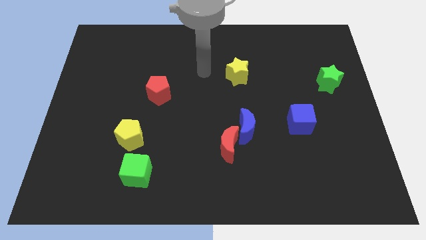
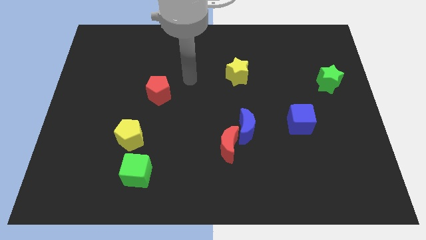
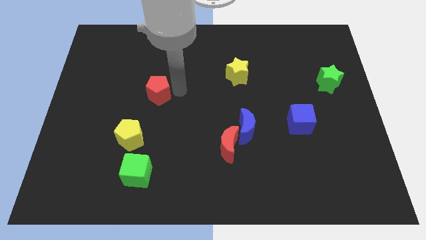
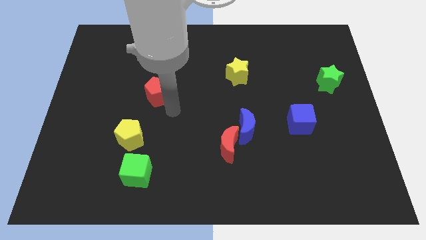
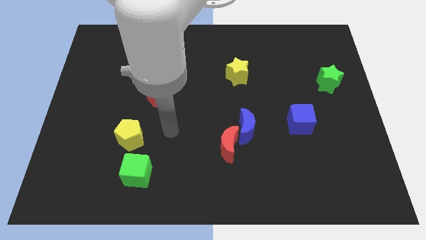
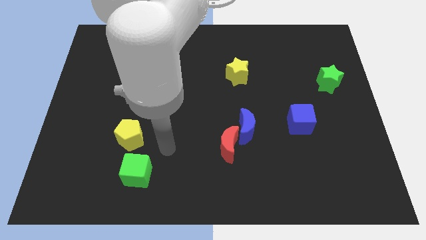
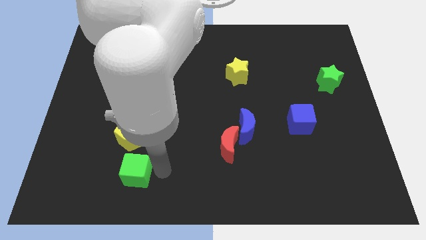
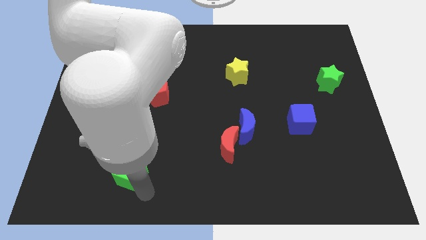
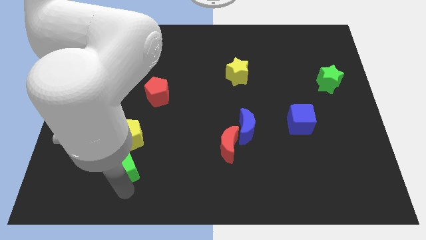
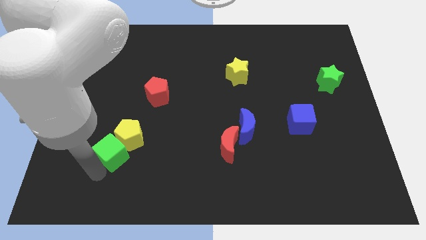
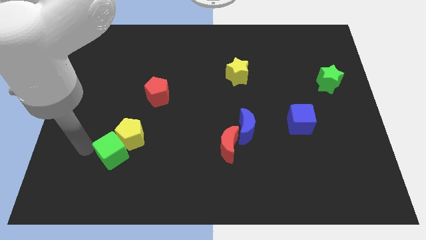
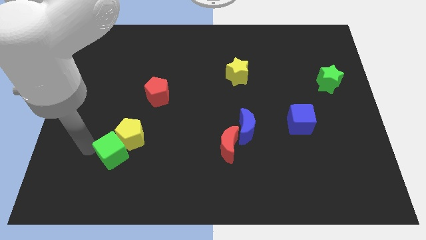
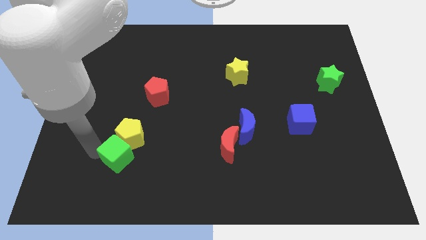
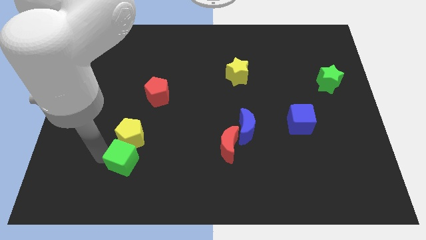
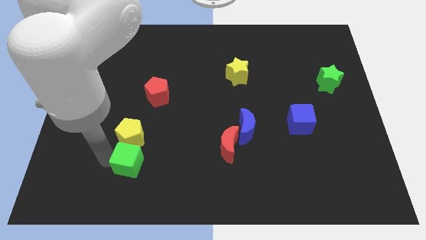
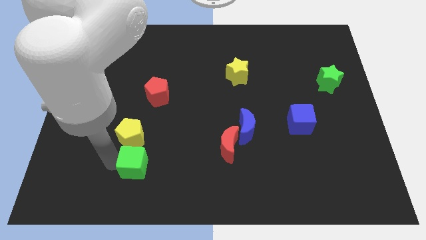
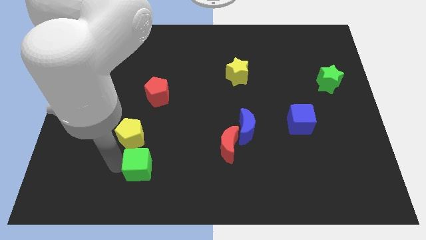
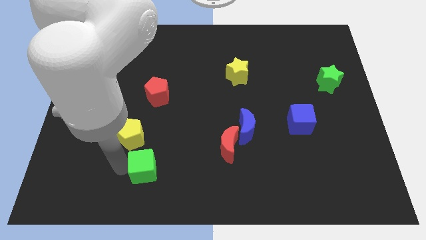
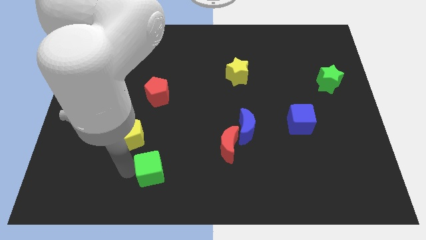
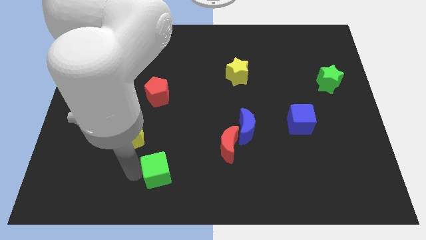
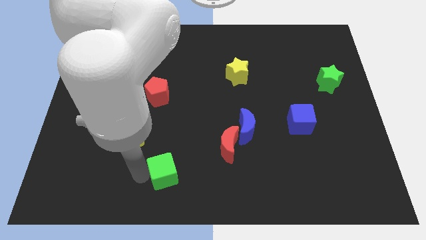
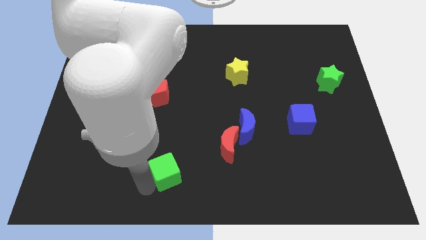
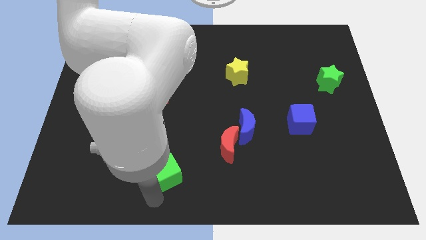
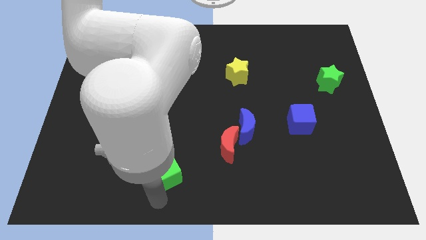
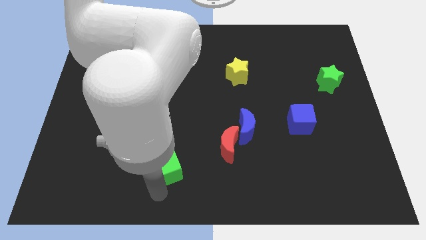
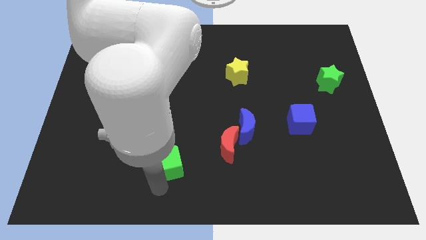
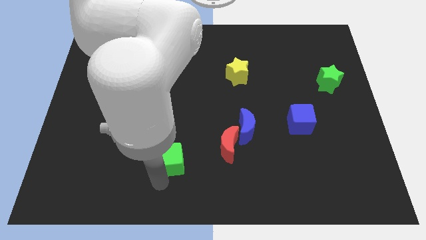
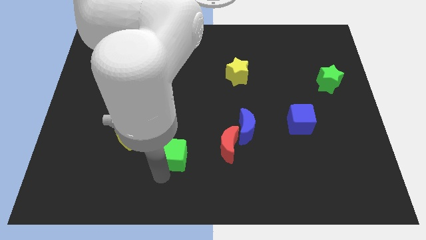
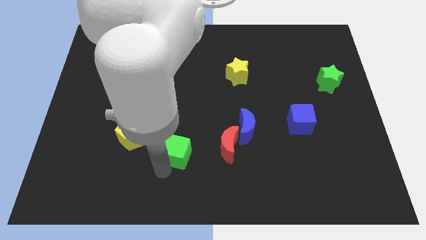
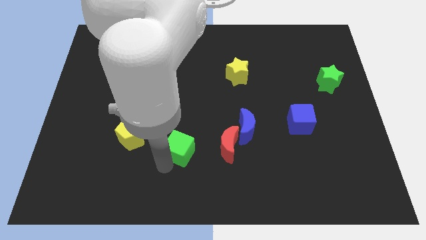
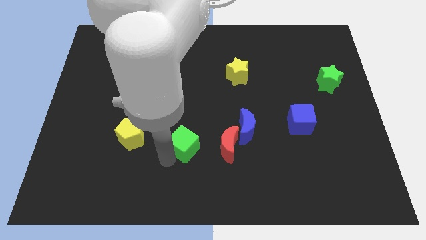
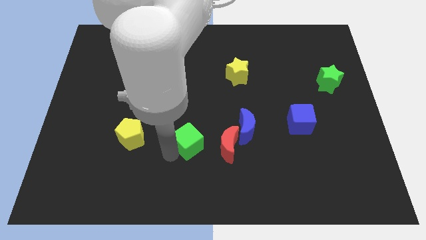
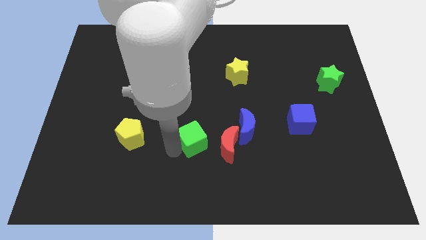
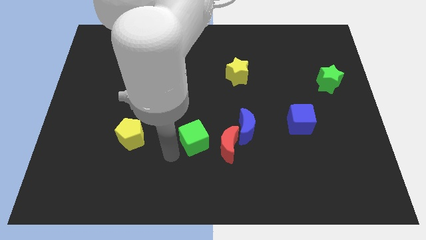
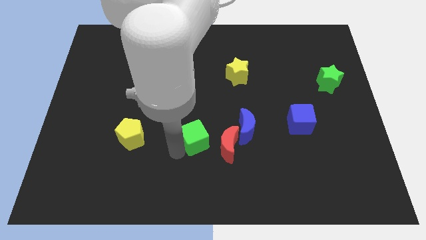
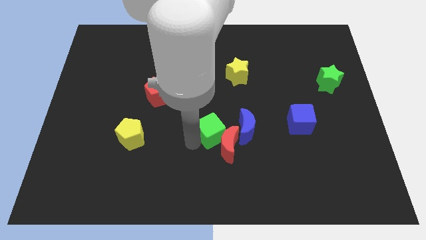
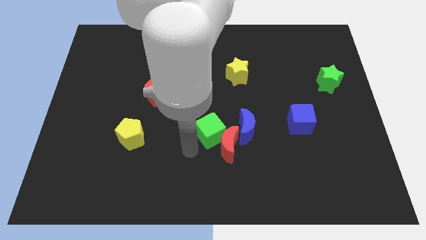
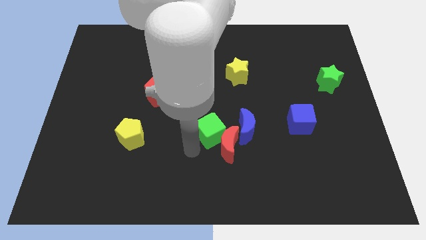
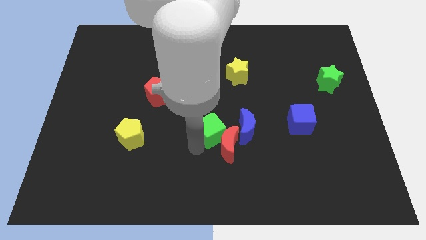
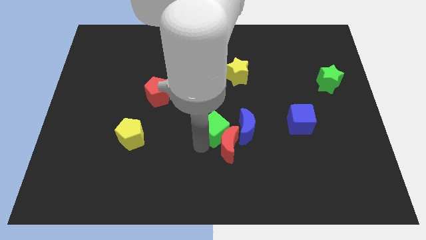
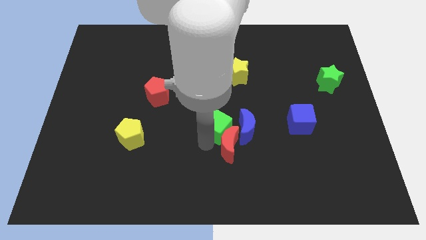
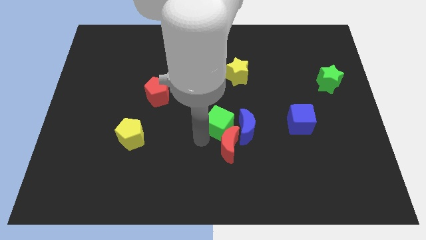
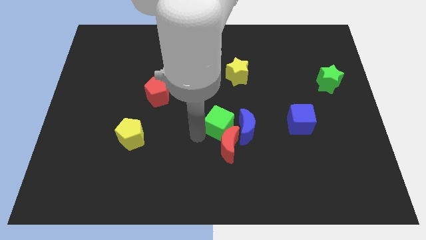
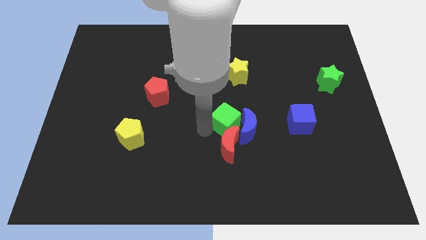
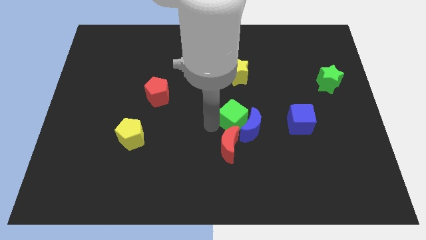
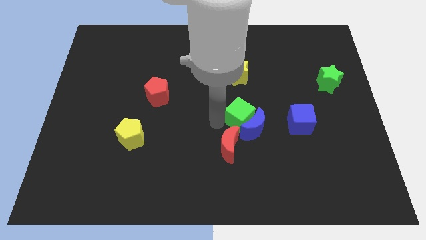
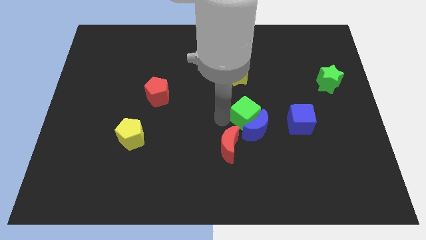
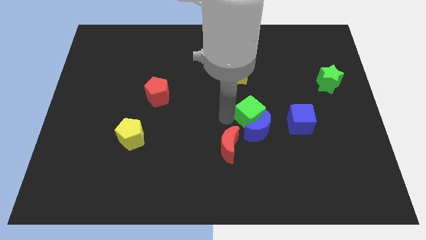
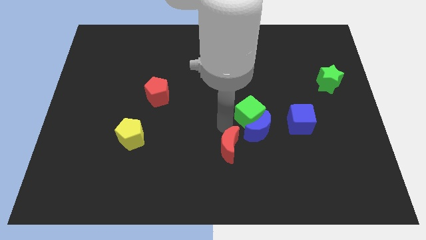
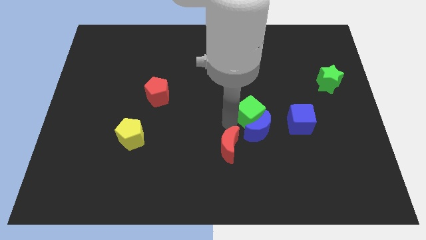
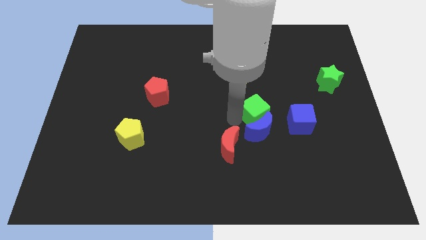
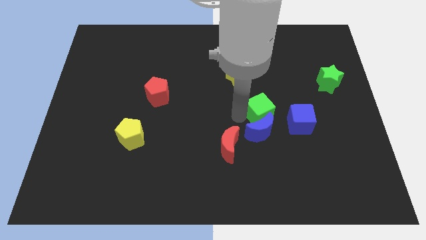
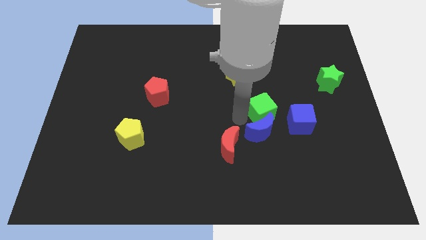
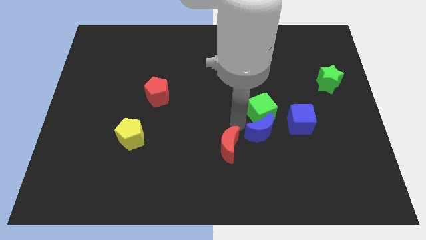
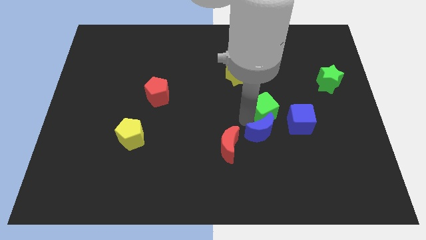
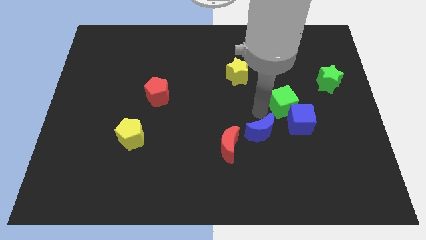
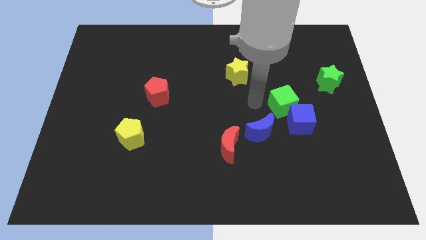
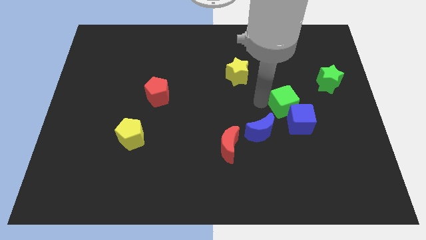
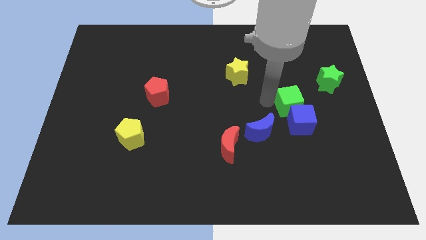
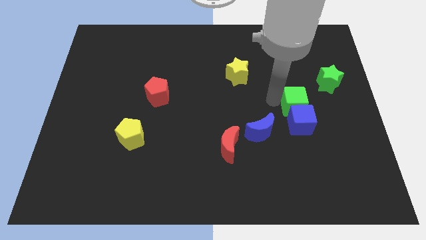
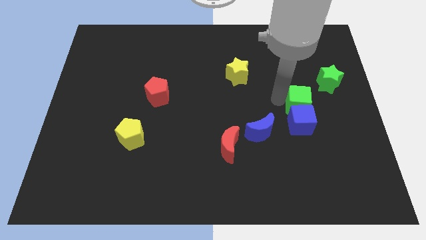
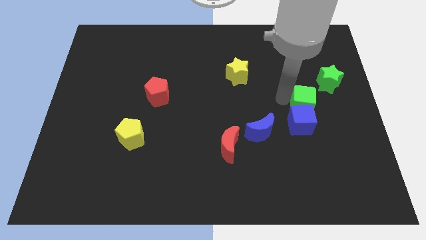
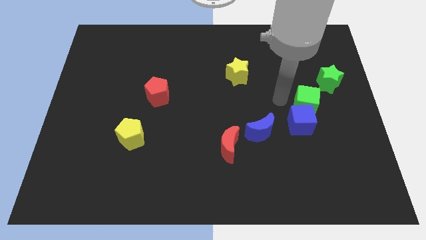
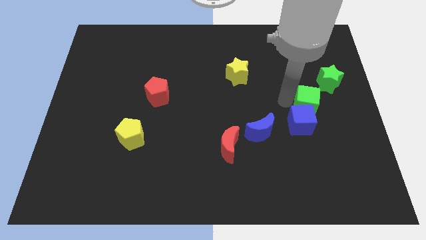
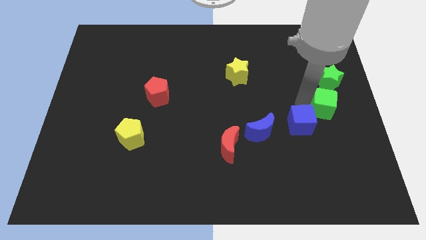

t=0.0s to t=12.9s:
move the green cube to the right side of the board
